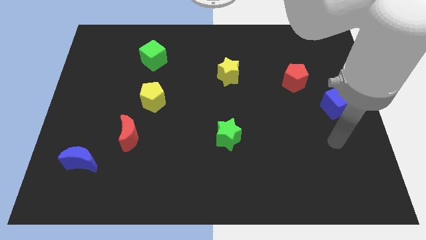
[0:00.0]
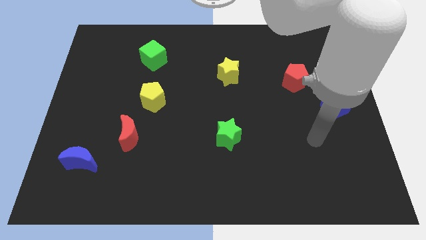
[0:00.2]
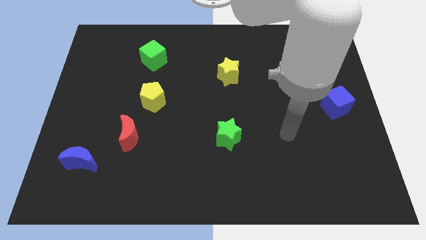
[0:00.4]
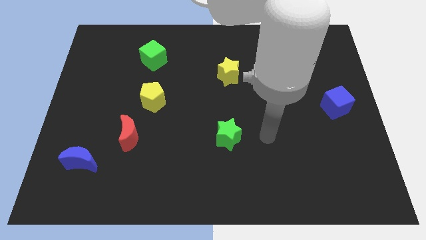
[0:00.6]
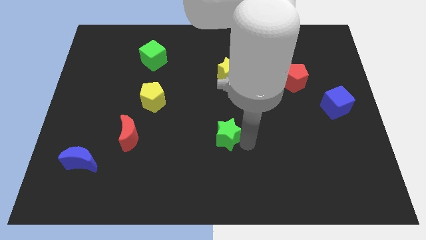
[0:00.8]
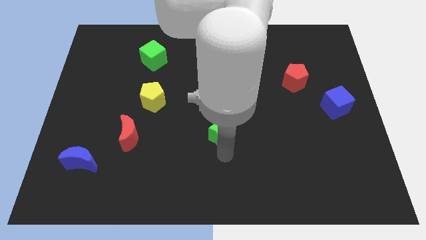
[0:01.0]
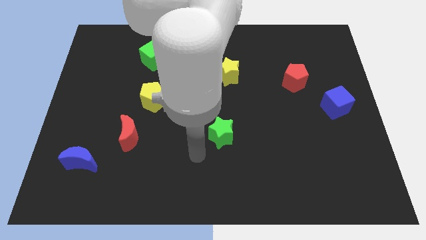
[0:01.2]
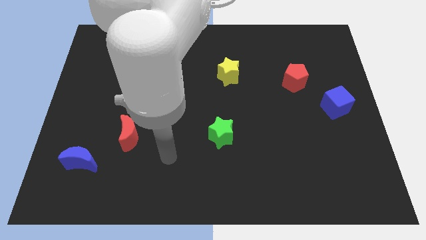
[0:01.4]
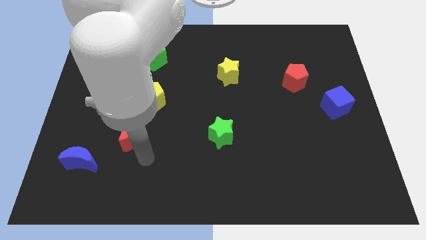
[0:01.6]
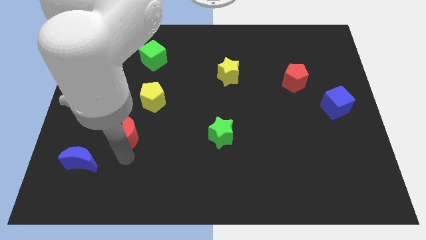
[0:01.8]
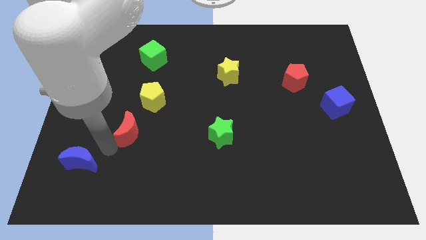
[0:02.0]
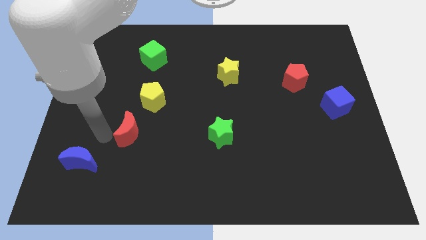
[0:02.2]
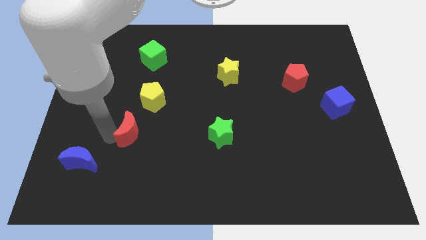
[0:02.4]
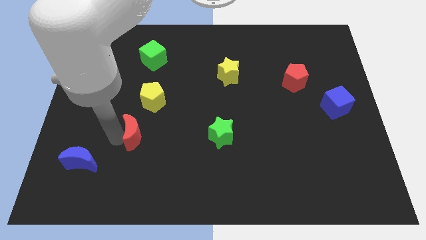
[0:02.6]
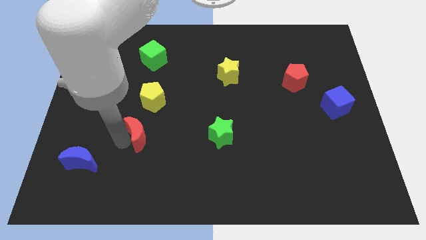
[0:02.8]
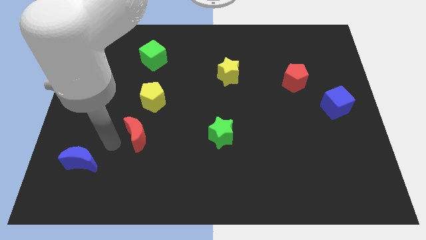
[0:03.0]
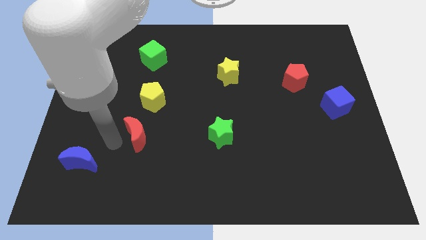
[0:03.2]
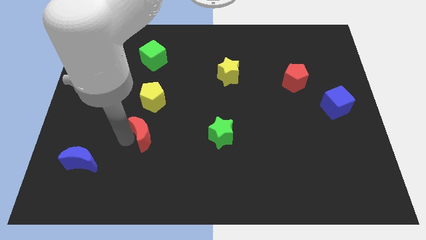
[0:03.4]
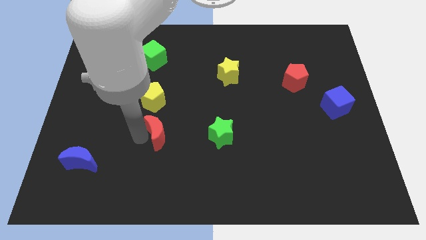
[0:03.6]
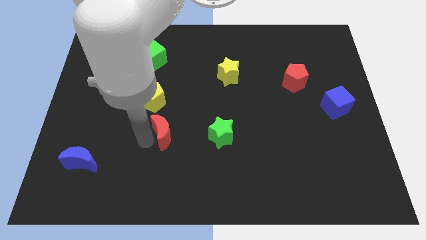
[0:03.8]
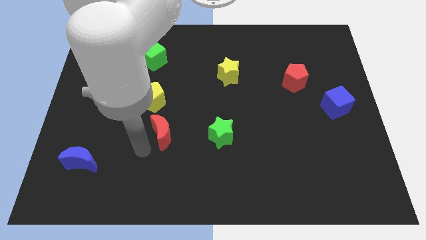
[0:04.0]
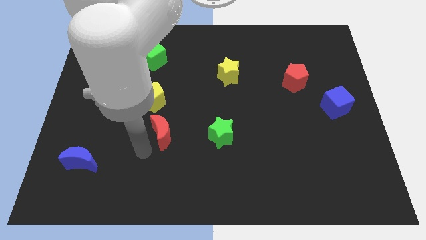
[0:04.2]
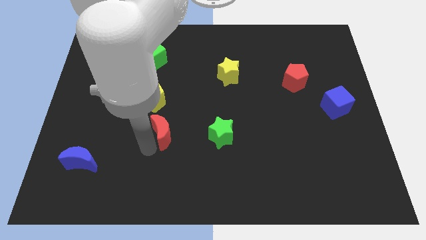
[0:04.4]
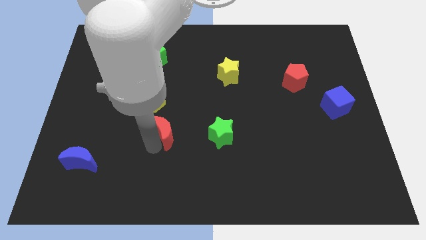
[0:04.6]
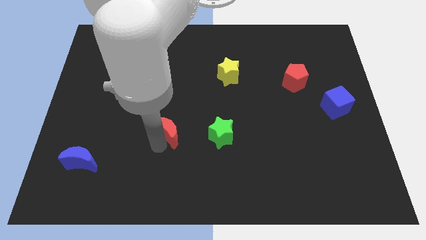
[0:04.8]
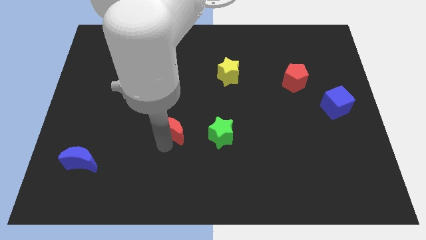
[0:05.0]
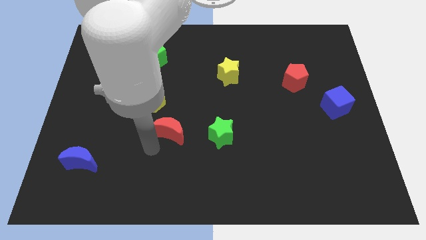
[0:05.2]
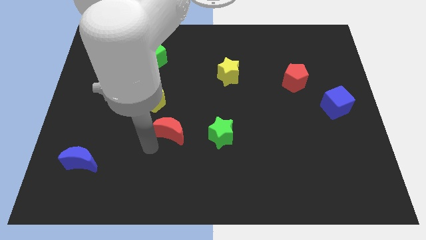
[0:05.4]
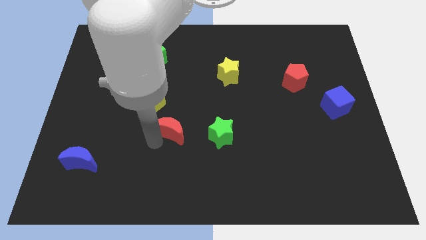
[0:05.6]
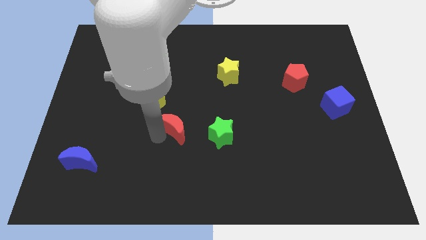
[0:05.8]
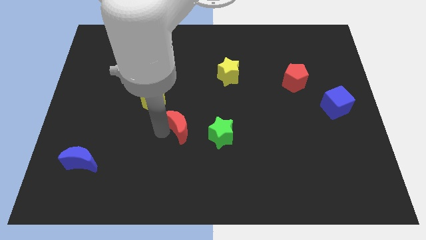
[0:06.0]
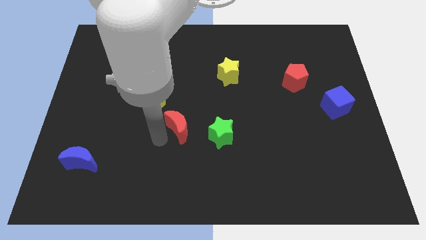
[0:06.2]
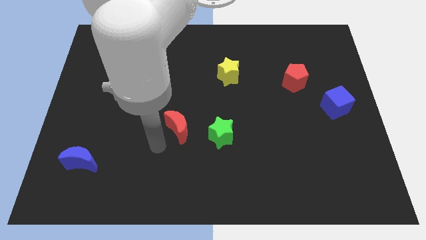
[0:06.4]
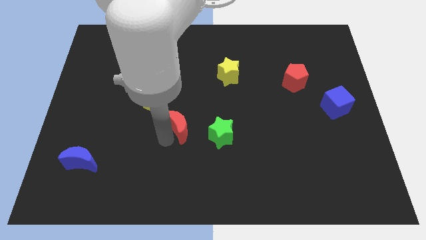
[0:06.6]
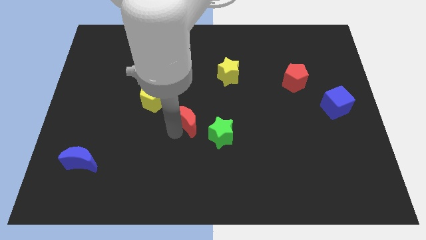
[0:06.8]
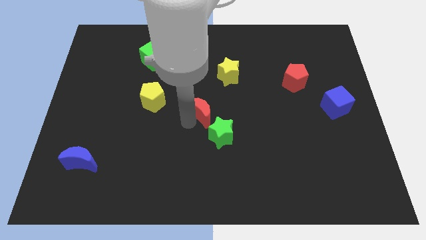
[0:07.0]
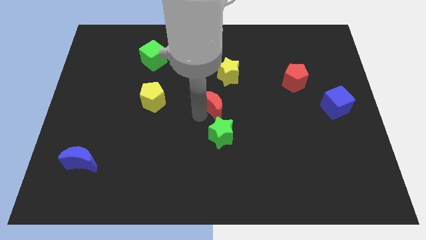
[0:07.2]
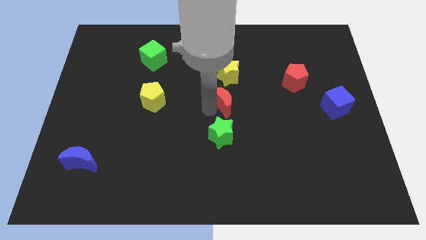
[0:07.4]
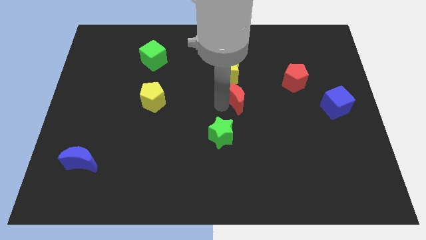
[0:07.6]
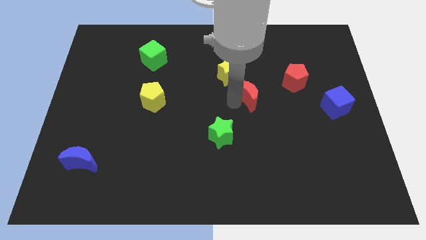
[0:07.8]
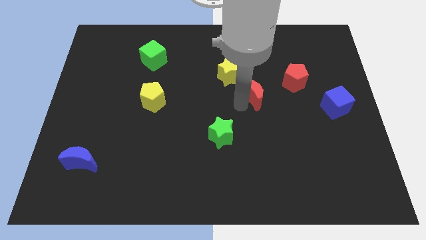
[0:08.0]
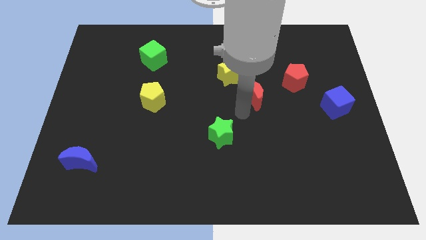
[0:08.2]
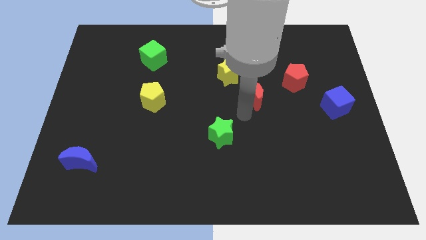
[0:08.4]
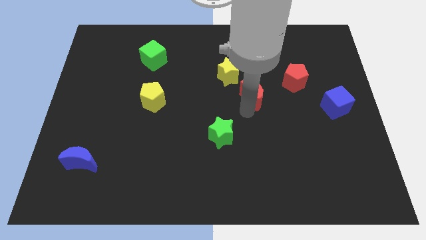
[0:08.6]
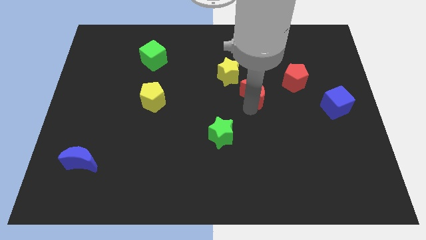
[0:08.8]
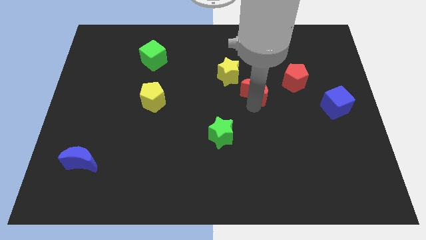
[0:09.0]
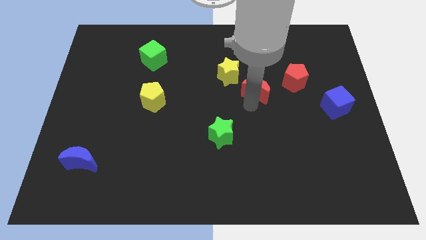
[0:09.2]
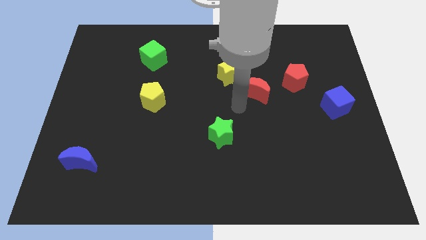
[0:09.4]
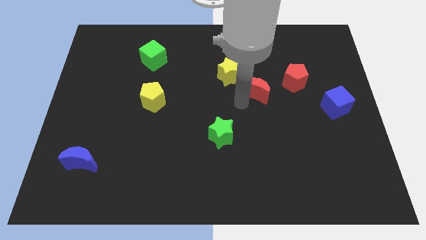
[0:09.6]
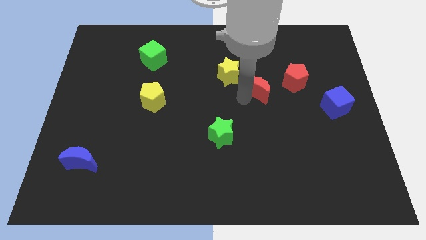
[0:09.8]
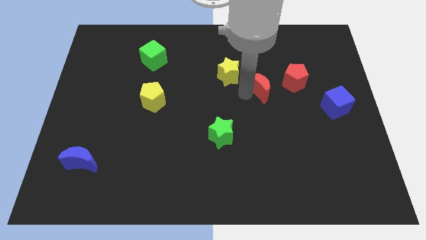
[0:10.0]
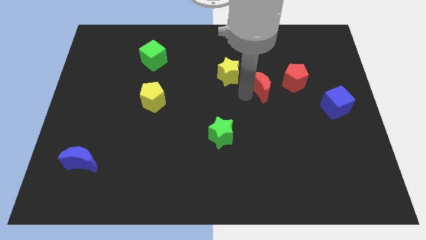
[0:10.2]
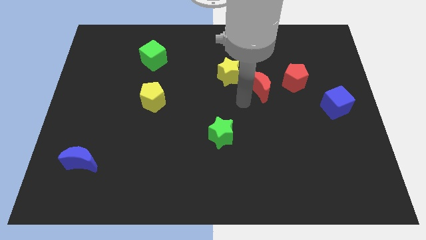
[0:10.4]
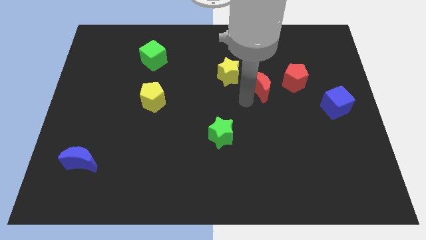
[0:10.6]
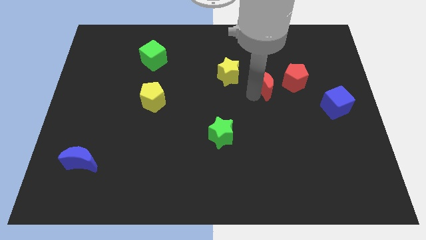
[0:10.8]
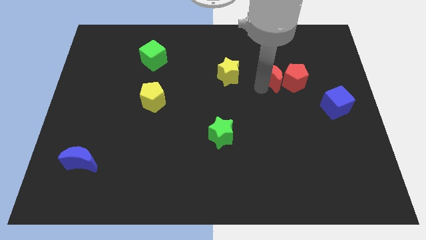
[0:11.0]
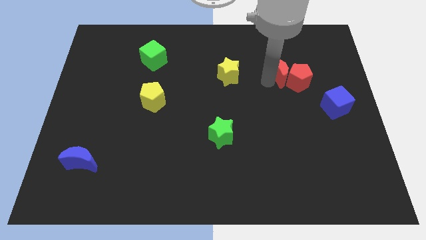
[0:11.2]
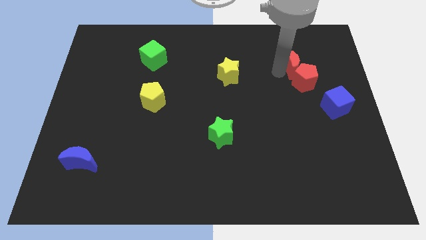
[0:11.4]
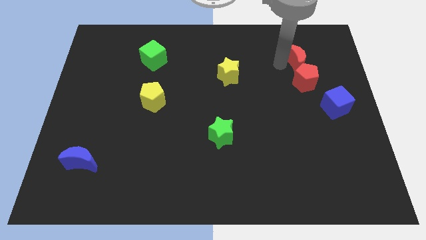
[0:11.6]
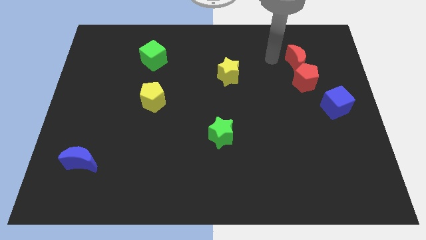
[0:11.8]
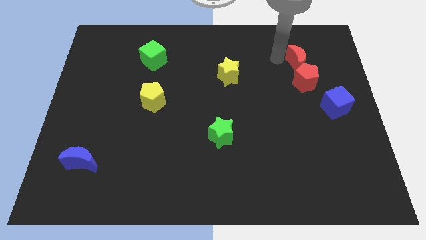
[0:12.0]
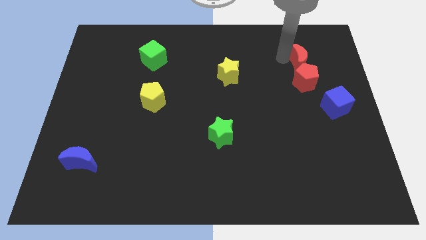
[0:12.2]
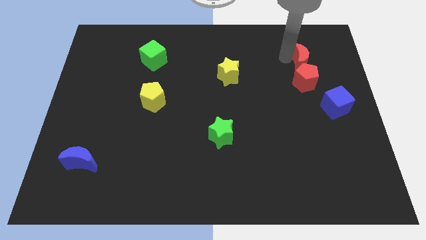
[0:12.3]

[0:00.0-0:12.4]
put the red moon to the top right of the red pentagon

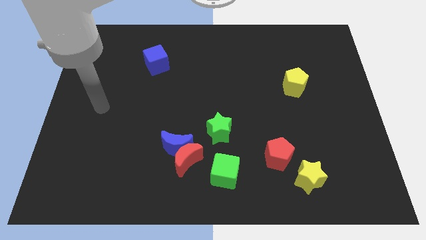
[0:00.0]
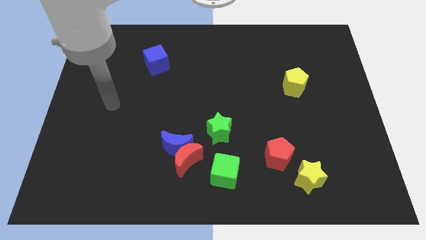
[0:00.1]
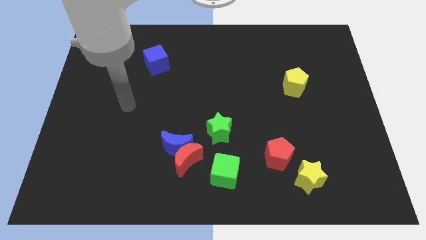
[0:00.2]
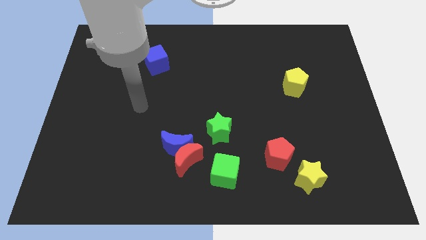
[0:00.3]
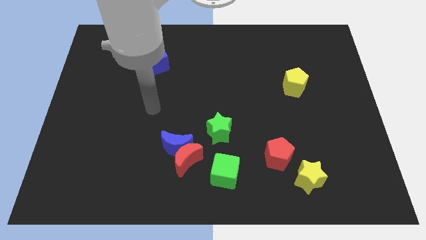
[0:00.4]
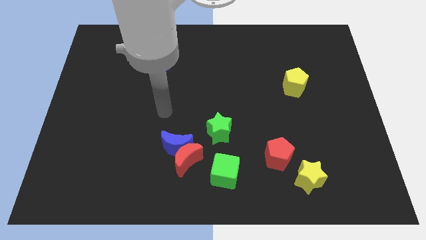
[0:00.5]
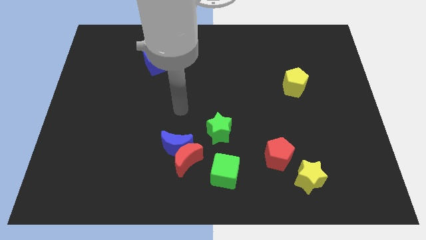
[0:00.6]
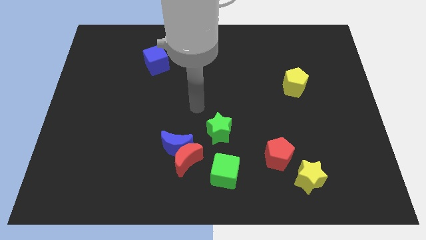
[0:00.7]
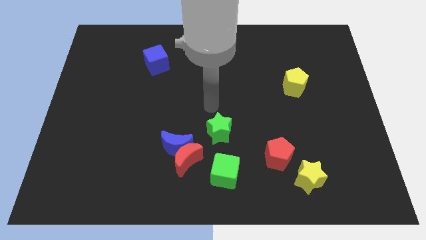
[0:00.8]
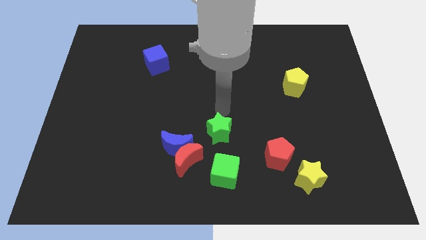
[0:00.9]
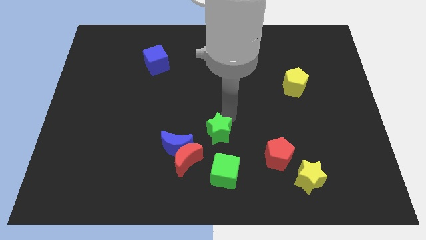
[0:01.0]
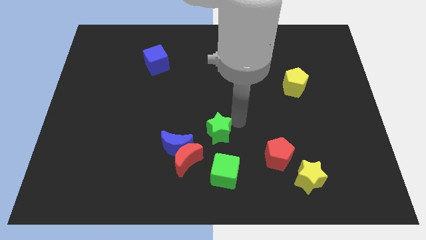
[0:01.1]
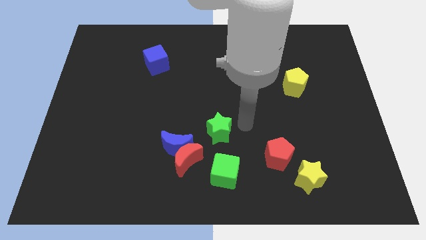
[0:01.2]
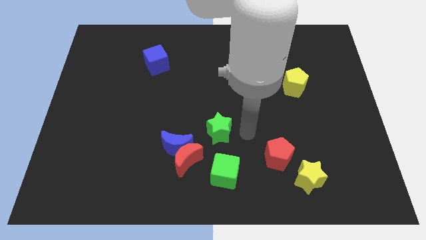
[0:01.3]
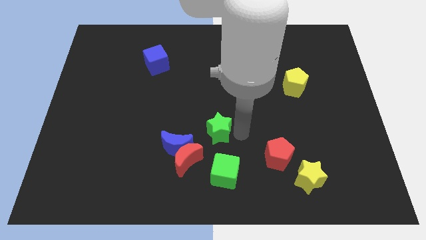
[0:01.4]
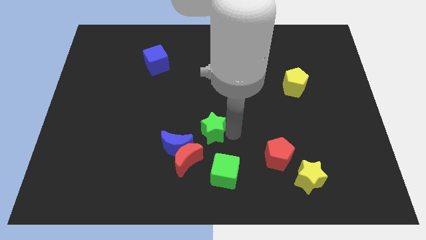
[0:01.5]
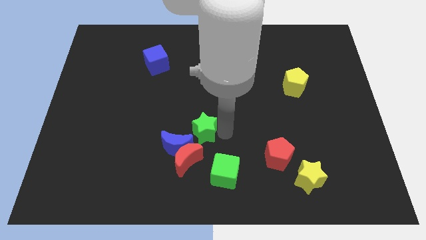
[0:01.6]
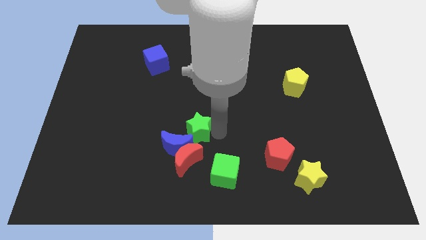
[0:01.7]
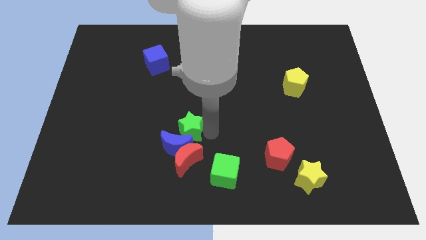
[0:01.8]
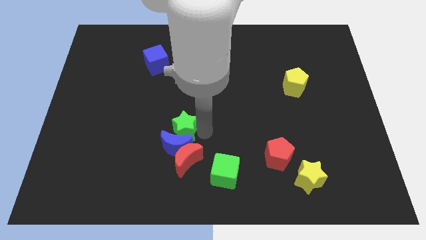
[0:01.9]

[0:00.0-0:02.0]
push the green star diagonally up and to the left of the blue moon
